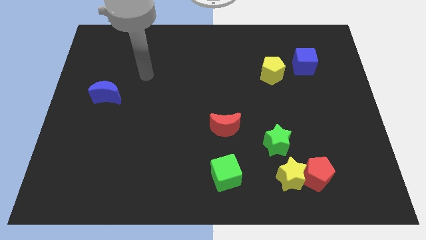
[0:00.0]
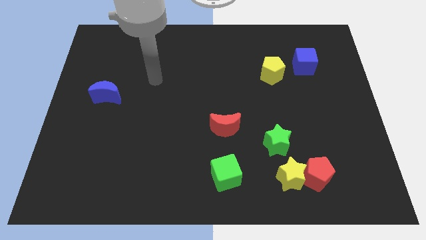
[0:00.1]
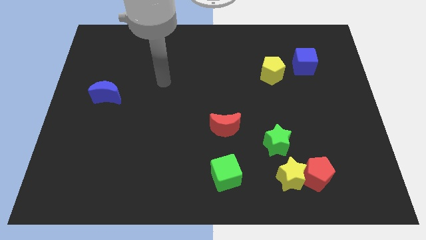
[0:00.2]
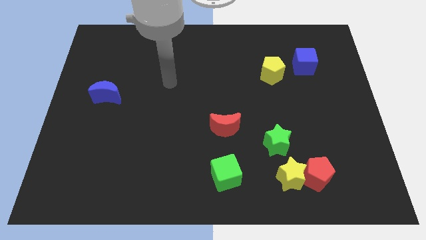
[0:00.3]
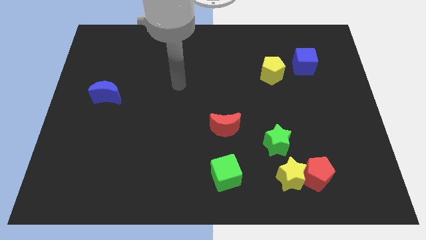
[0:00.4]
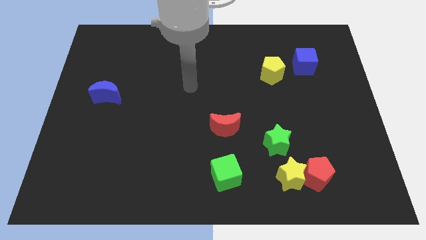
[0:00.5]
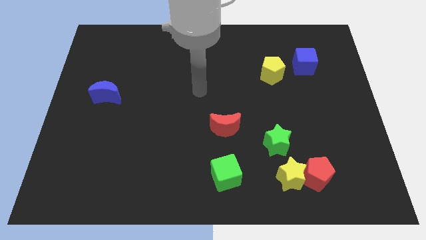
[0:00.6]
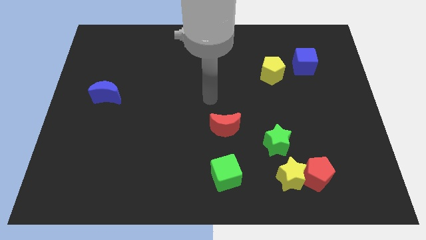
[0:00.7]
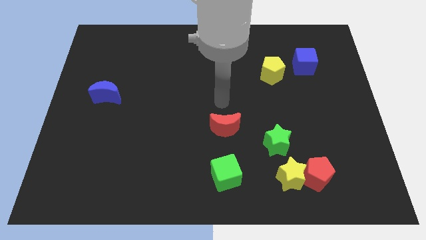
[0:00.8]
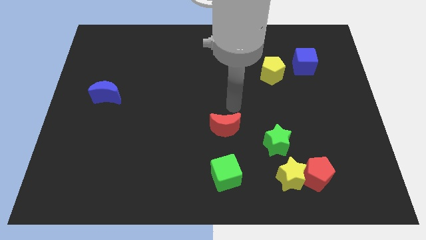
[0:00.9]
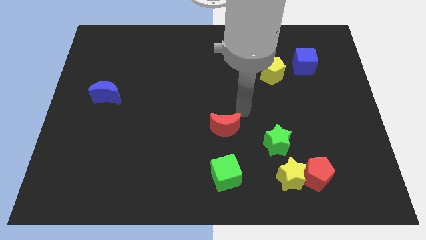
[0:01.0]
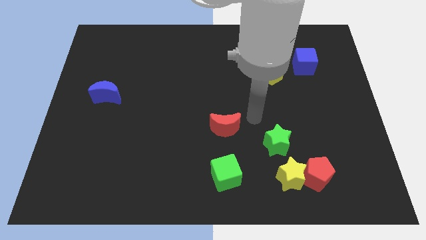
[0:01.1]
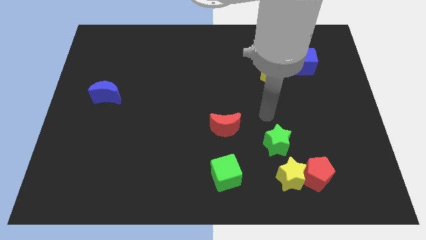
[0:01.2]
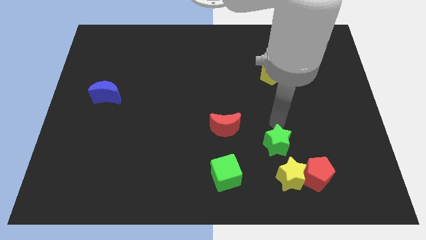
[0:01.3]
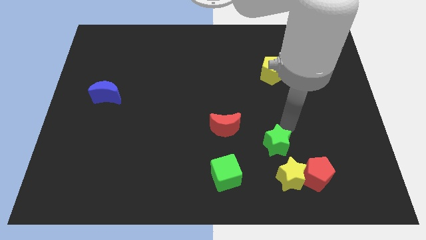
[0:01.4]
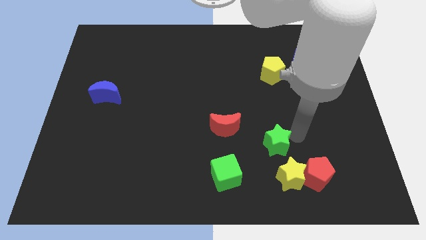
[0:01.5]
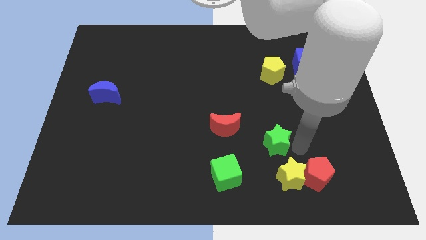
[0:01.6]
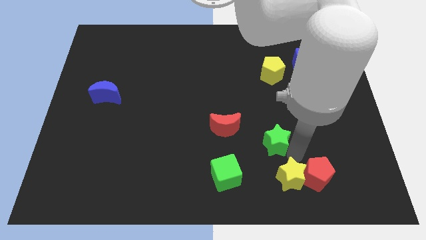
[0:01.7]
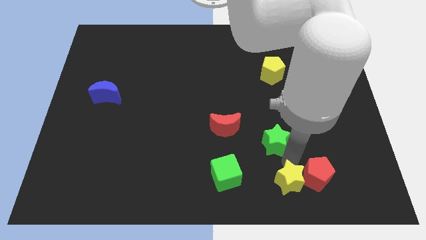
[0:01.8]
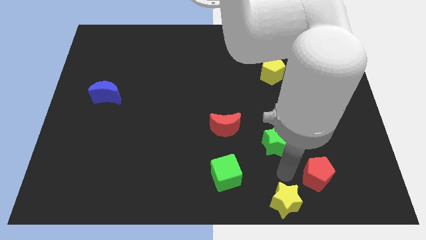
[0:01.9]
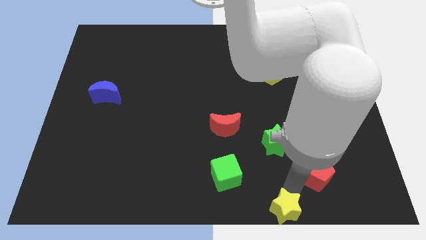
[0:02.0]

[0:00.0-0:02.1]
separate the red pentagon from the yellow star

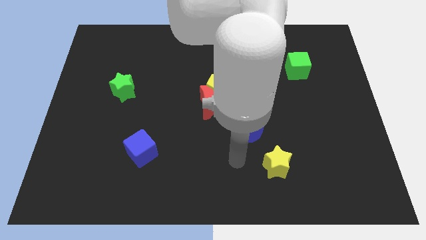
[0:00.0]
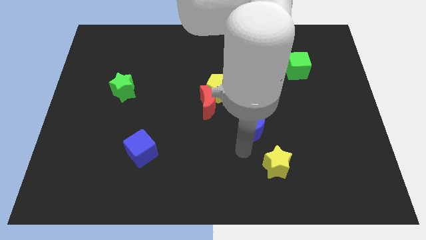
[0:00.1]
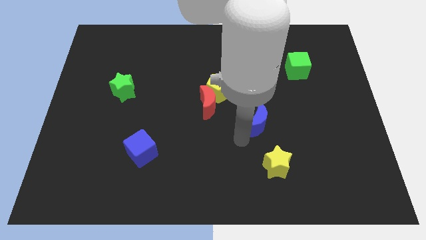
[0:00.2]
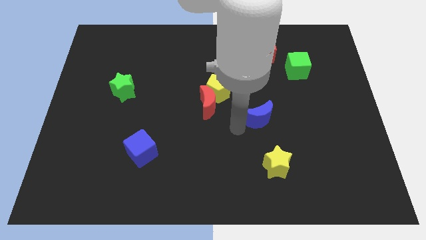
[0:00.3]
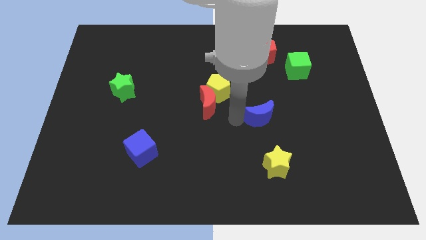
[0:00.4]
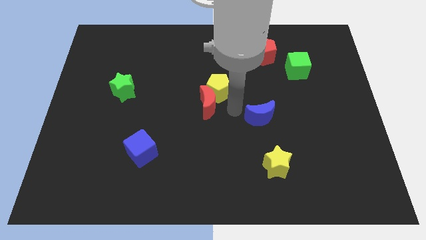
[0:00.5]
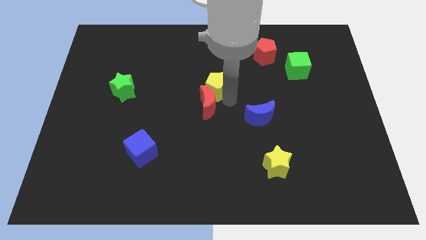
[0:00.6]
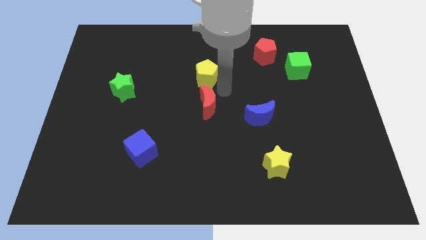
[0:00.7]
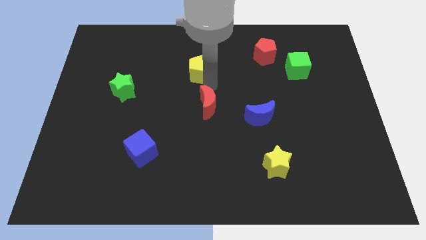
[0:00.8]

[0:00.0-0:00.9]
move the red moon away from the yellow pentagon

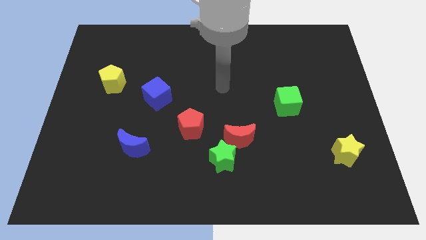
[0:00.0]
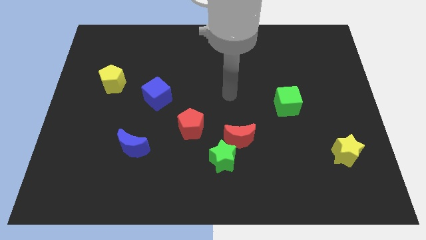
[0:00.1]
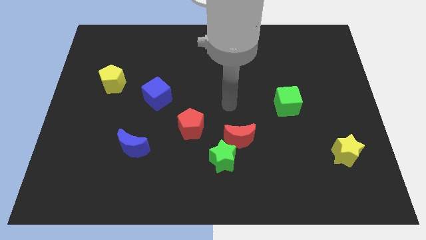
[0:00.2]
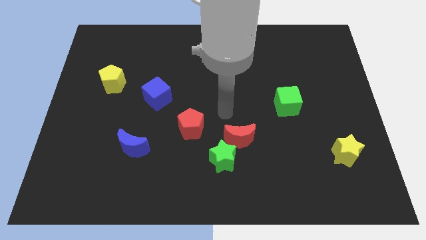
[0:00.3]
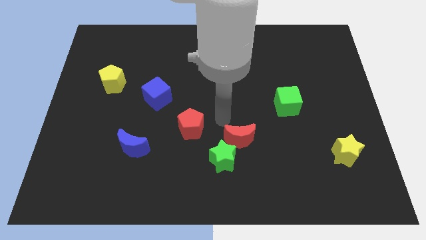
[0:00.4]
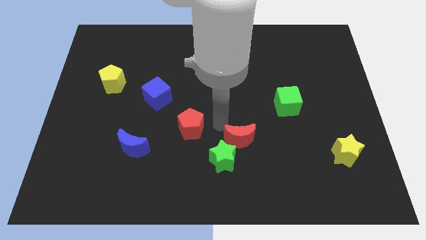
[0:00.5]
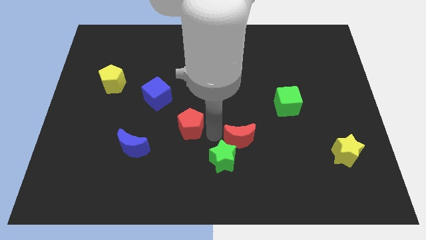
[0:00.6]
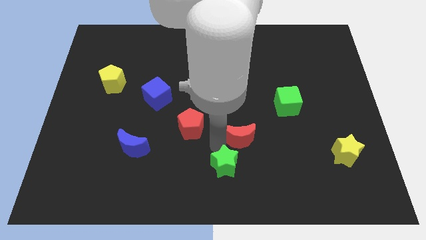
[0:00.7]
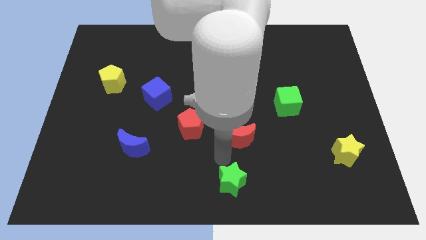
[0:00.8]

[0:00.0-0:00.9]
separate the red moon from the green star

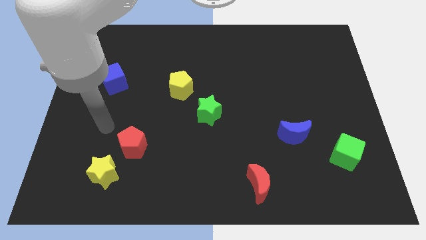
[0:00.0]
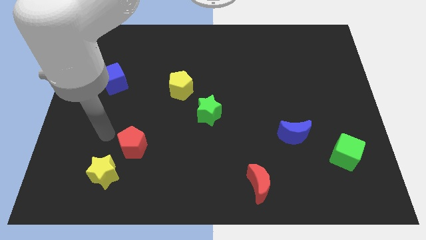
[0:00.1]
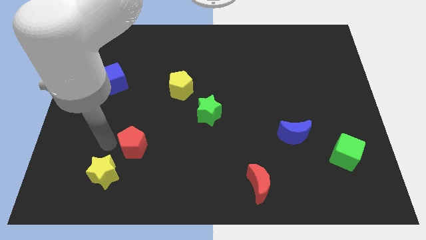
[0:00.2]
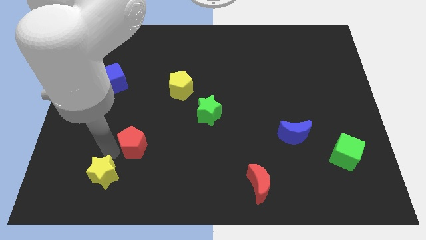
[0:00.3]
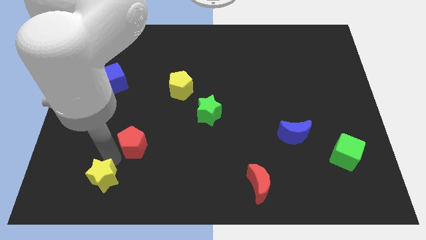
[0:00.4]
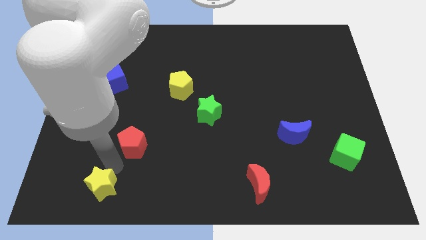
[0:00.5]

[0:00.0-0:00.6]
move the red pentagon away from the yellow star

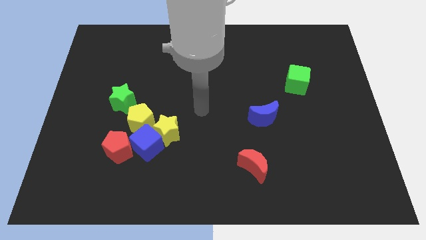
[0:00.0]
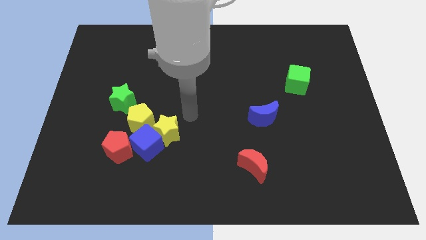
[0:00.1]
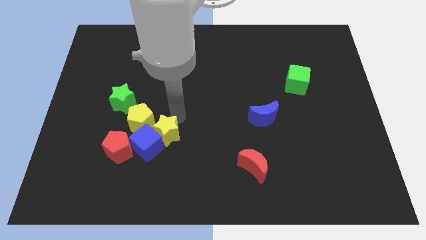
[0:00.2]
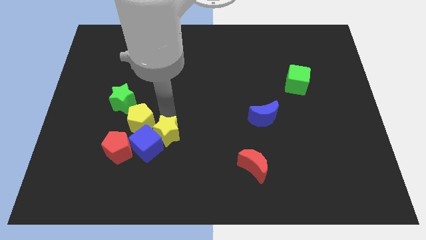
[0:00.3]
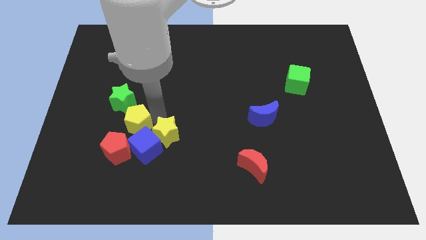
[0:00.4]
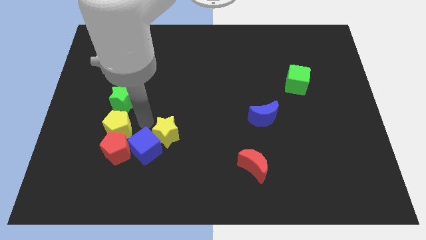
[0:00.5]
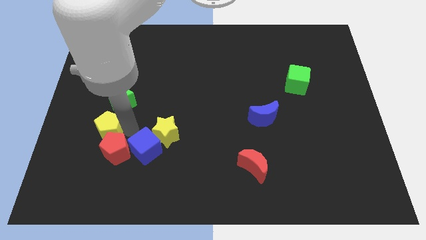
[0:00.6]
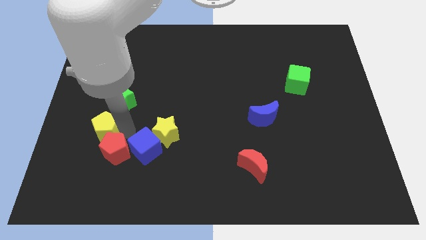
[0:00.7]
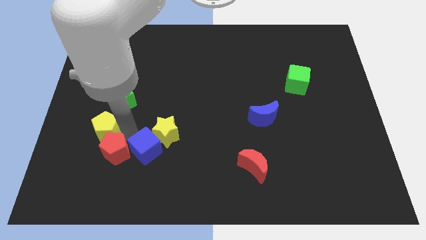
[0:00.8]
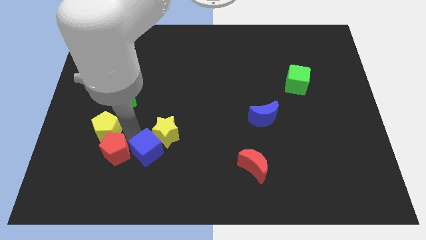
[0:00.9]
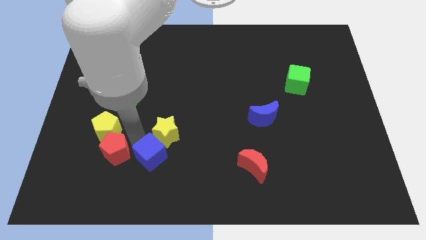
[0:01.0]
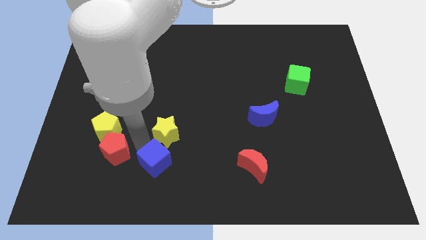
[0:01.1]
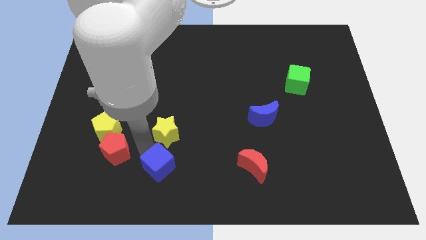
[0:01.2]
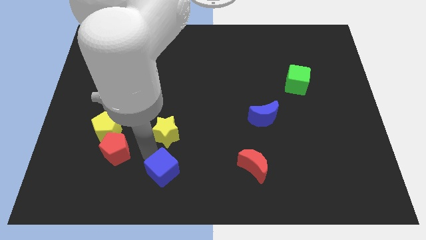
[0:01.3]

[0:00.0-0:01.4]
separate the blue cube from the yellow star, red pentagon, and yellow pentagon

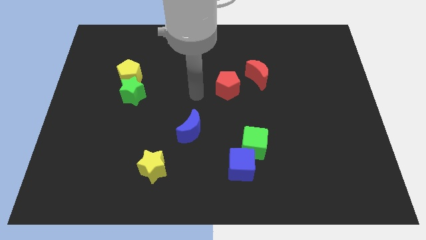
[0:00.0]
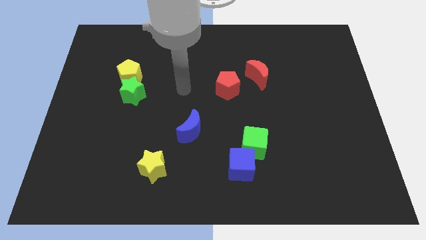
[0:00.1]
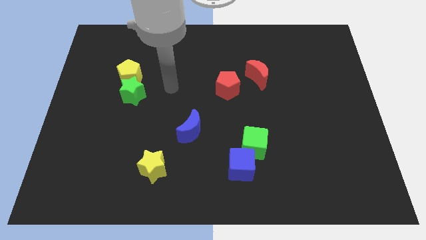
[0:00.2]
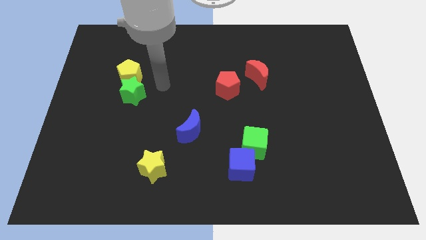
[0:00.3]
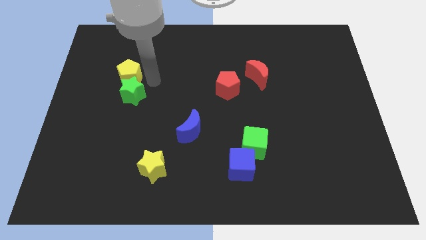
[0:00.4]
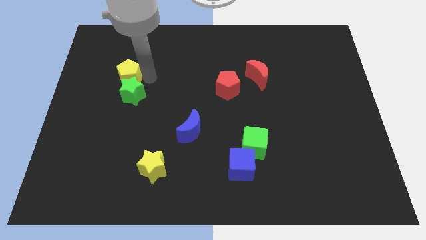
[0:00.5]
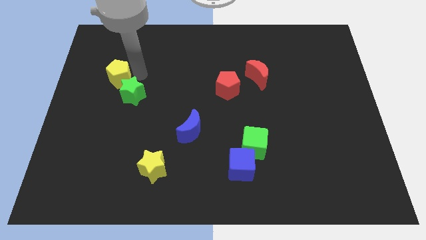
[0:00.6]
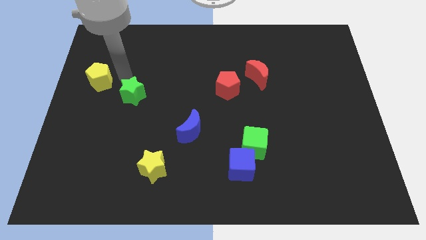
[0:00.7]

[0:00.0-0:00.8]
separate the green star from the yellow pentagon

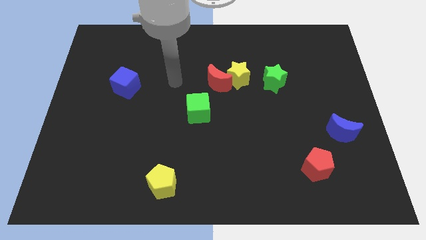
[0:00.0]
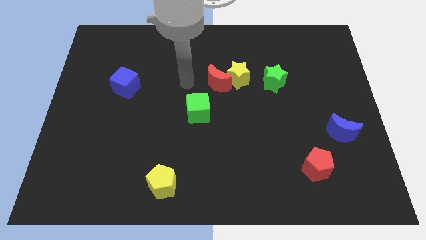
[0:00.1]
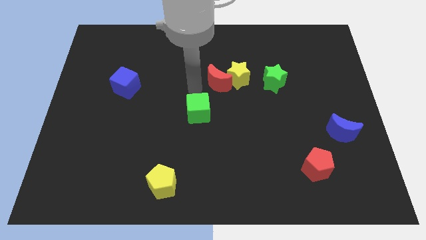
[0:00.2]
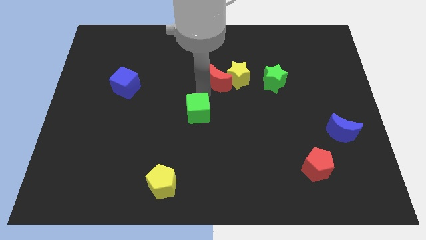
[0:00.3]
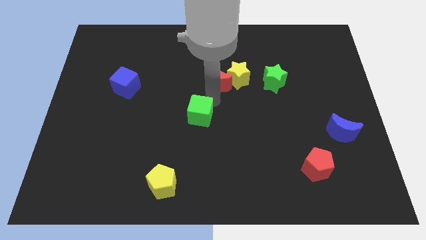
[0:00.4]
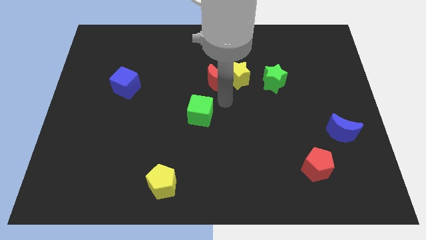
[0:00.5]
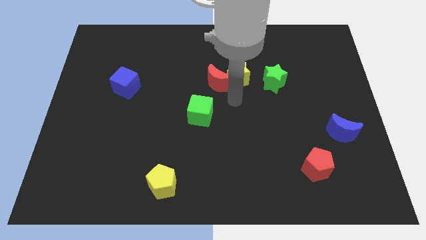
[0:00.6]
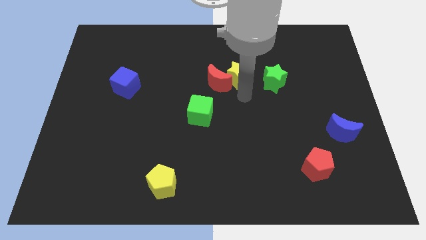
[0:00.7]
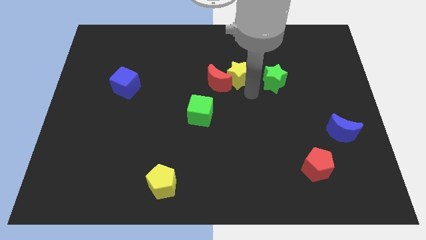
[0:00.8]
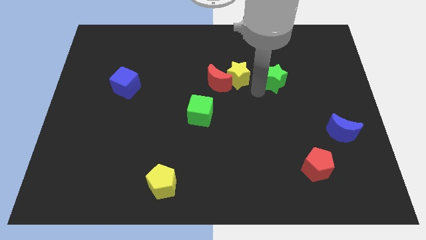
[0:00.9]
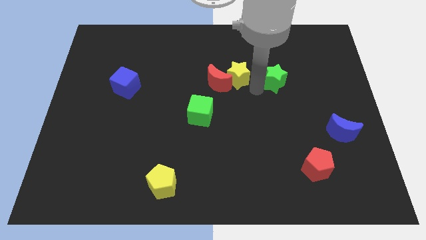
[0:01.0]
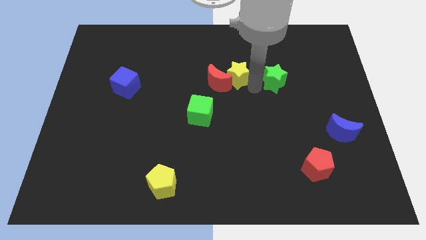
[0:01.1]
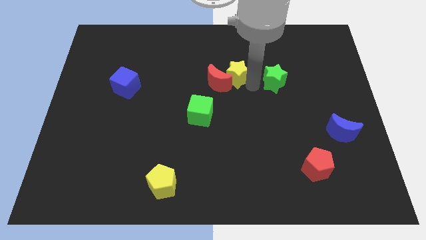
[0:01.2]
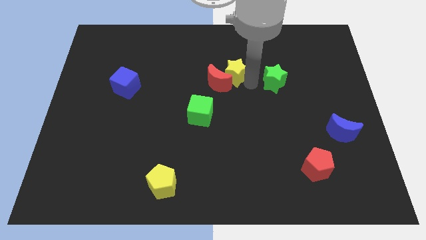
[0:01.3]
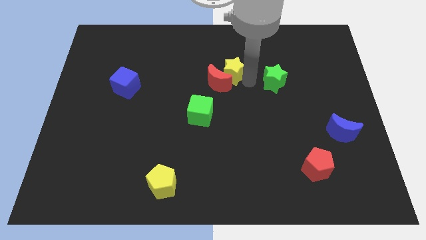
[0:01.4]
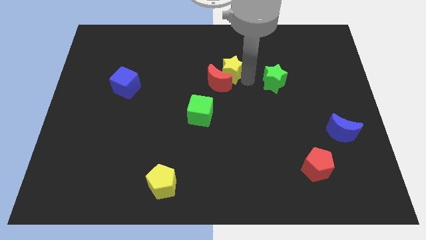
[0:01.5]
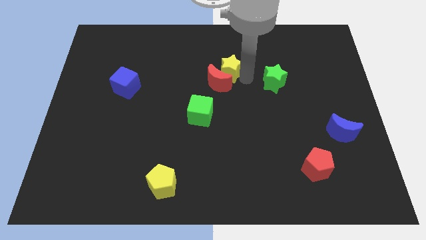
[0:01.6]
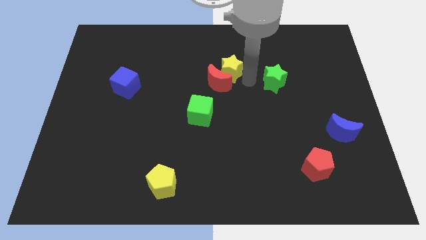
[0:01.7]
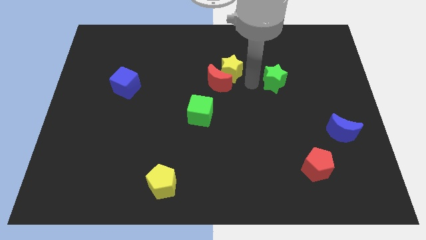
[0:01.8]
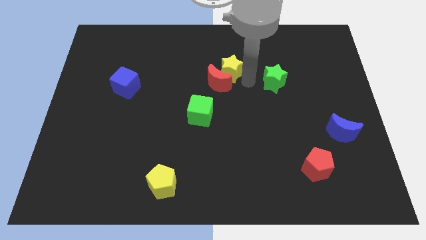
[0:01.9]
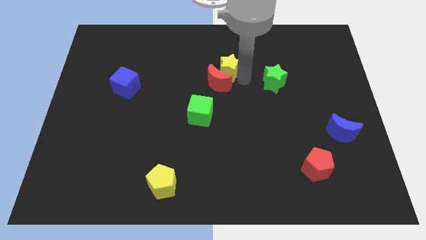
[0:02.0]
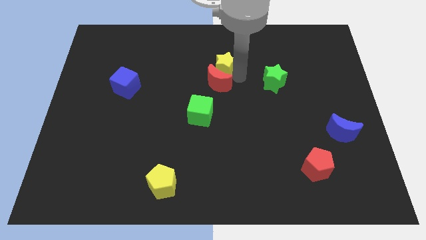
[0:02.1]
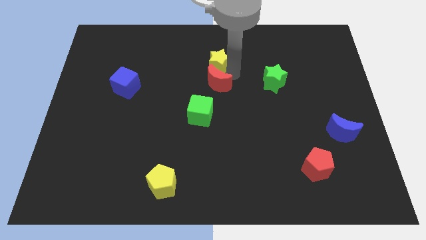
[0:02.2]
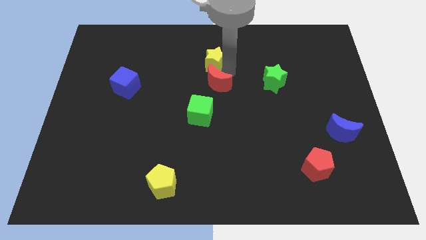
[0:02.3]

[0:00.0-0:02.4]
move the yellow star away from the red moon and green star

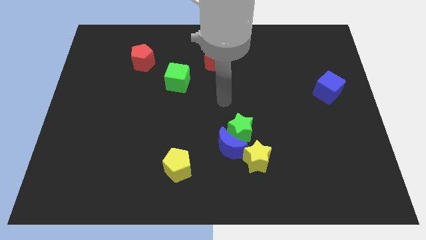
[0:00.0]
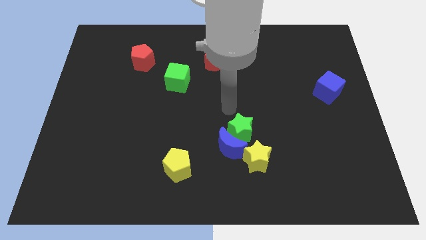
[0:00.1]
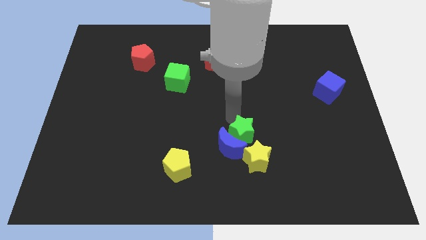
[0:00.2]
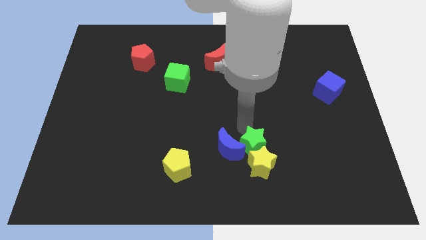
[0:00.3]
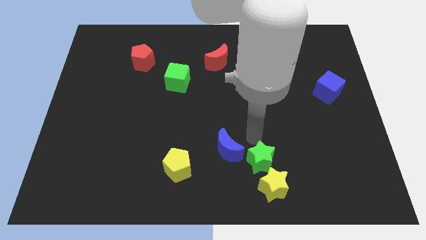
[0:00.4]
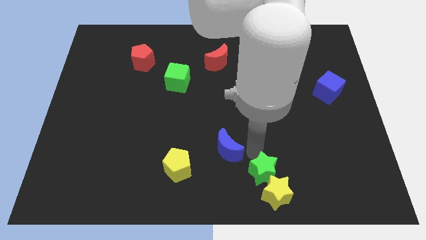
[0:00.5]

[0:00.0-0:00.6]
pull the blue moon apart from the green star and yellow star
